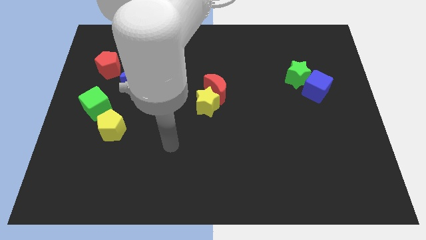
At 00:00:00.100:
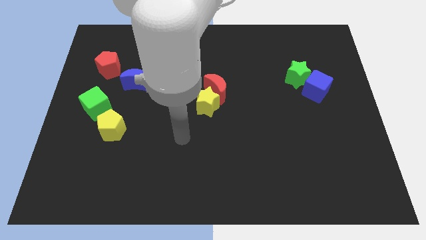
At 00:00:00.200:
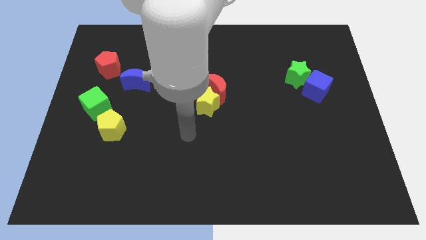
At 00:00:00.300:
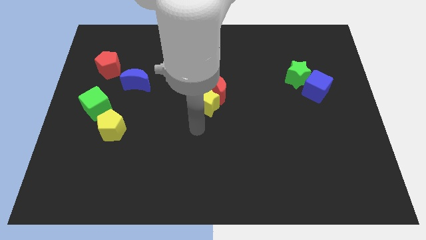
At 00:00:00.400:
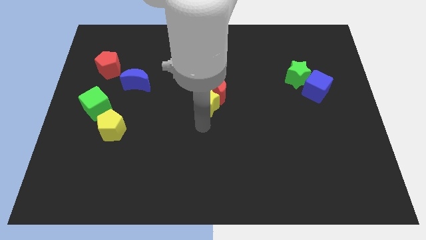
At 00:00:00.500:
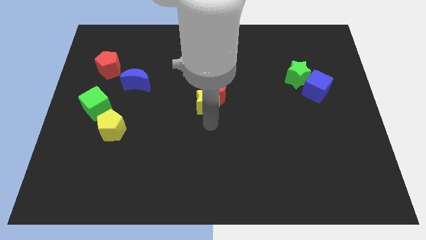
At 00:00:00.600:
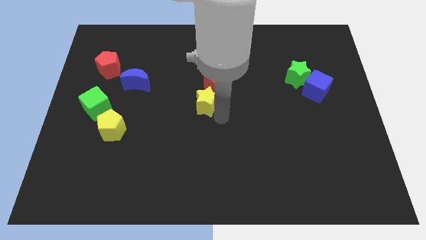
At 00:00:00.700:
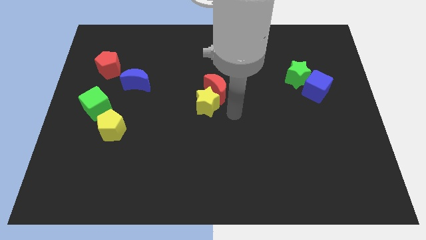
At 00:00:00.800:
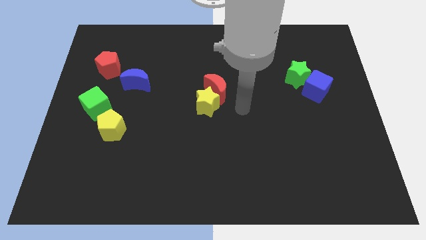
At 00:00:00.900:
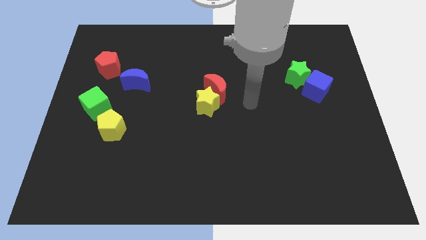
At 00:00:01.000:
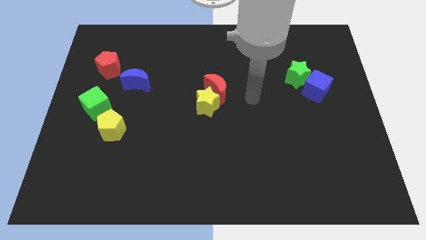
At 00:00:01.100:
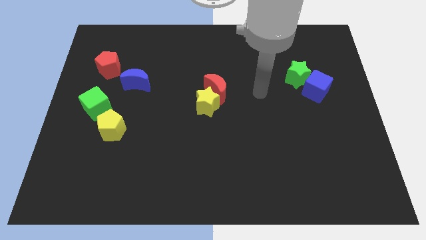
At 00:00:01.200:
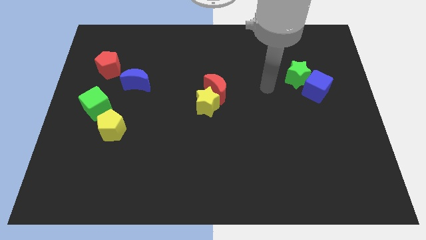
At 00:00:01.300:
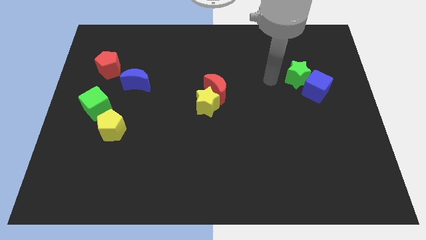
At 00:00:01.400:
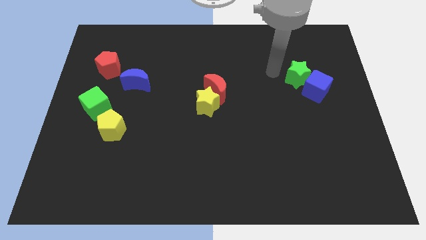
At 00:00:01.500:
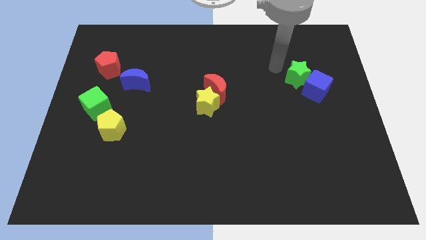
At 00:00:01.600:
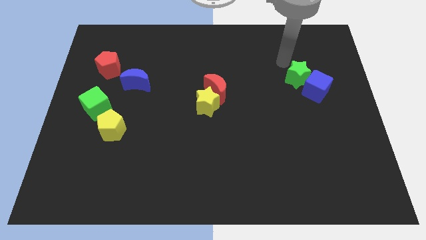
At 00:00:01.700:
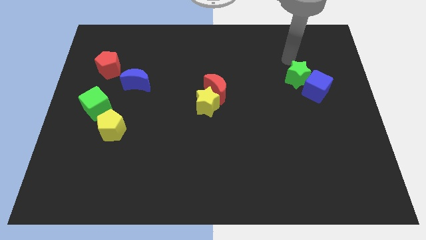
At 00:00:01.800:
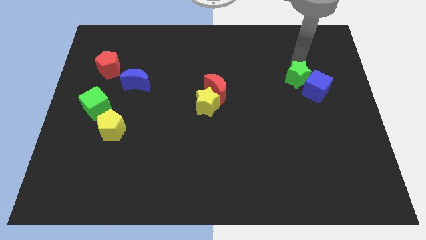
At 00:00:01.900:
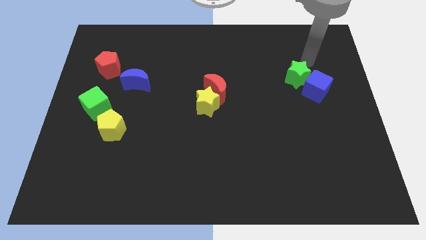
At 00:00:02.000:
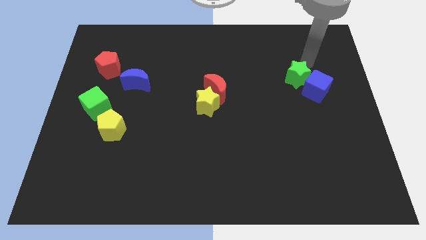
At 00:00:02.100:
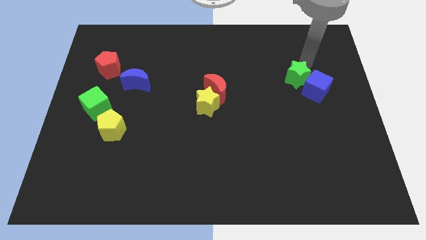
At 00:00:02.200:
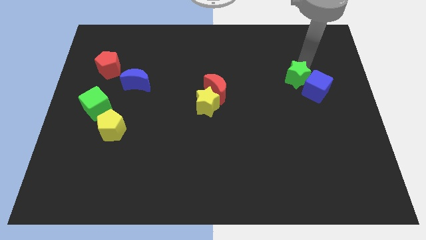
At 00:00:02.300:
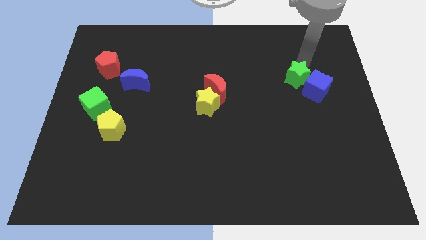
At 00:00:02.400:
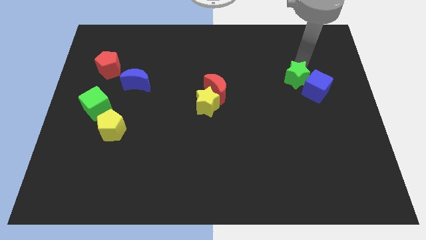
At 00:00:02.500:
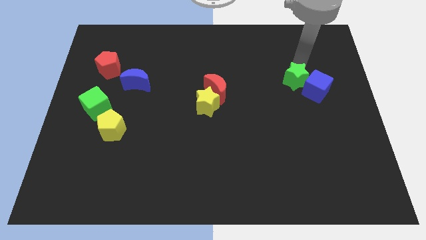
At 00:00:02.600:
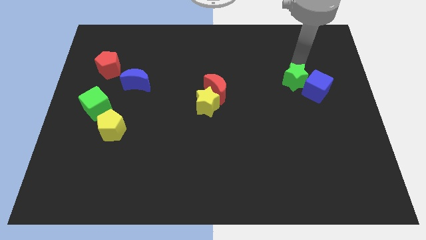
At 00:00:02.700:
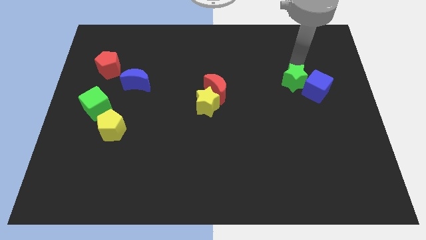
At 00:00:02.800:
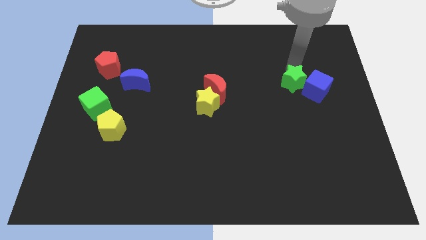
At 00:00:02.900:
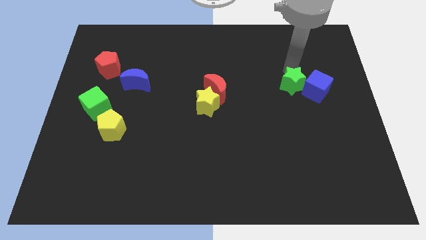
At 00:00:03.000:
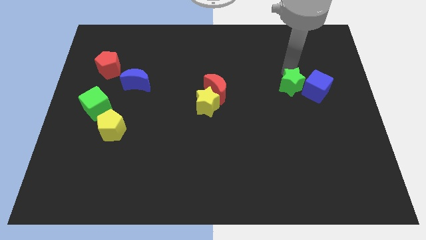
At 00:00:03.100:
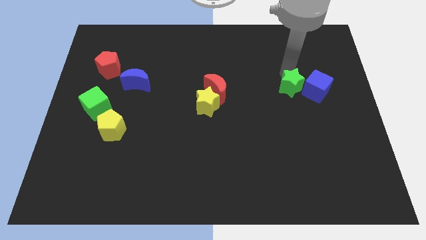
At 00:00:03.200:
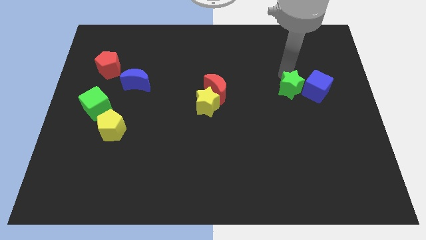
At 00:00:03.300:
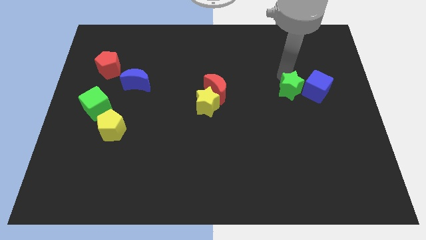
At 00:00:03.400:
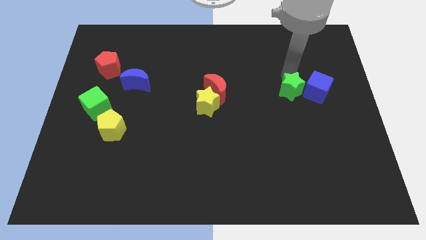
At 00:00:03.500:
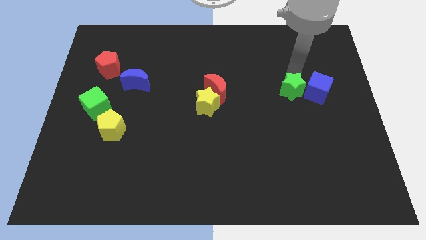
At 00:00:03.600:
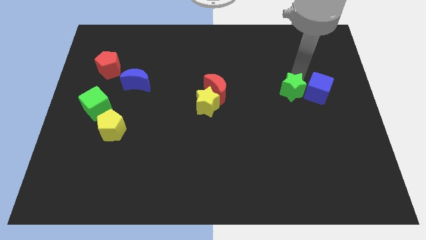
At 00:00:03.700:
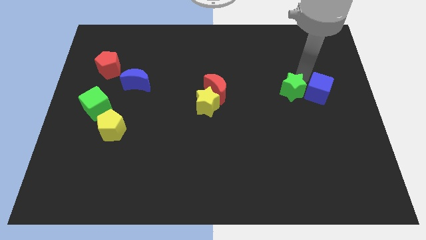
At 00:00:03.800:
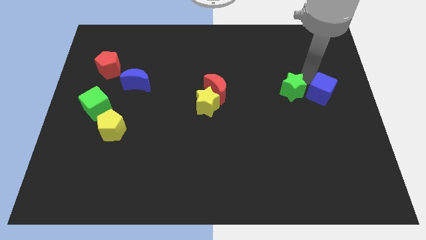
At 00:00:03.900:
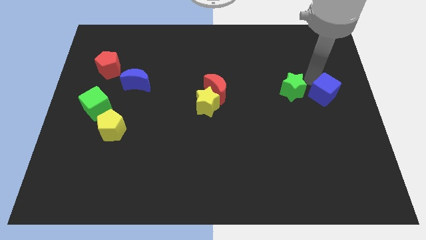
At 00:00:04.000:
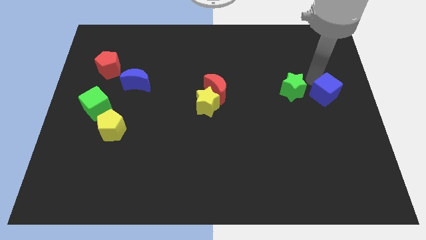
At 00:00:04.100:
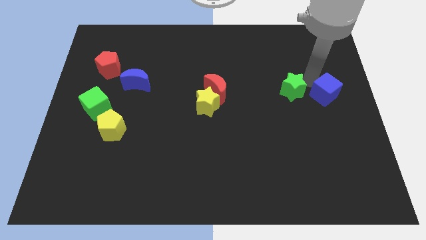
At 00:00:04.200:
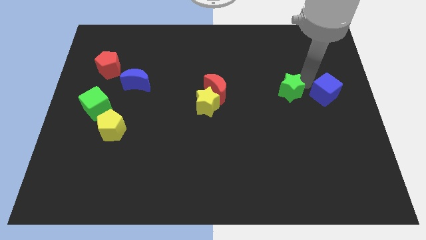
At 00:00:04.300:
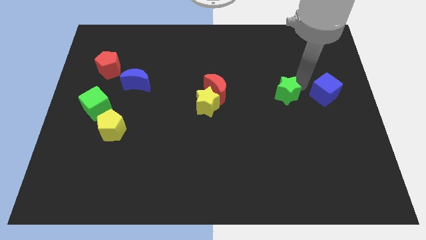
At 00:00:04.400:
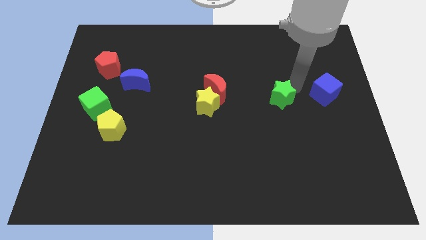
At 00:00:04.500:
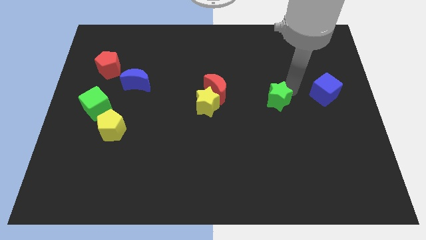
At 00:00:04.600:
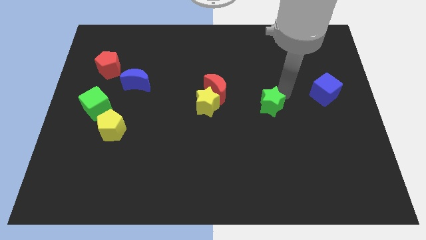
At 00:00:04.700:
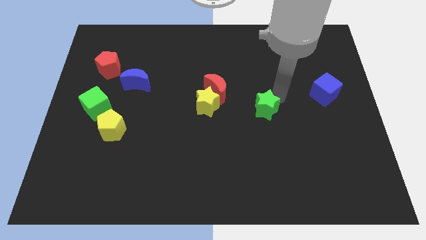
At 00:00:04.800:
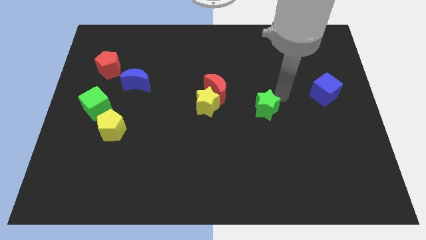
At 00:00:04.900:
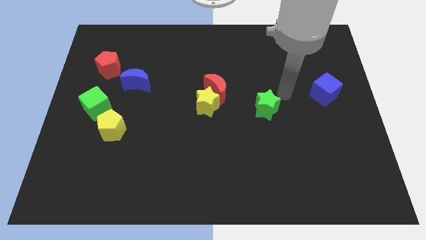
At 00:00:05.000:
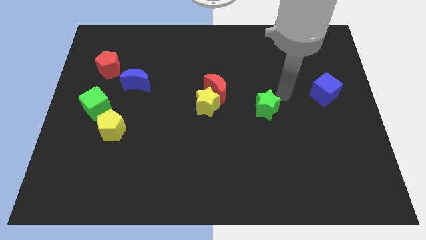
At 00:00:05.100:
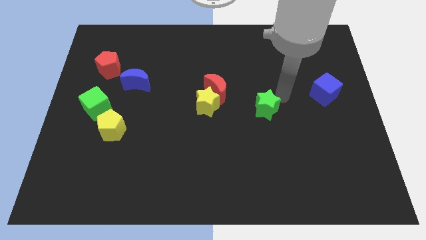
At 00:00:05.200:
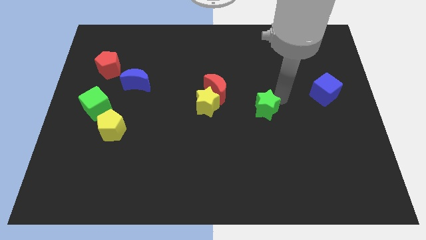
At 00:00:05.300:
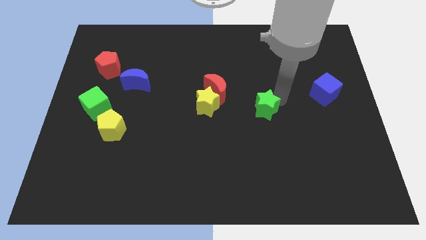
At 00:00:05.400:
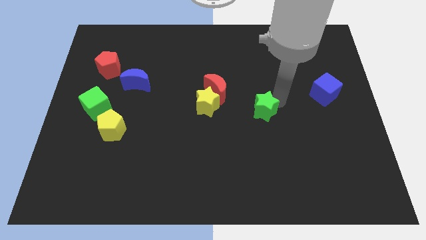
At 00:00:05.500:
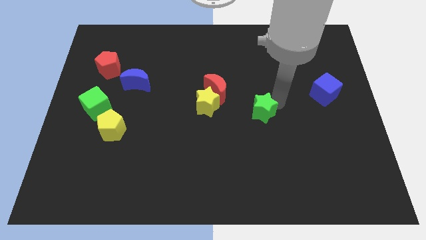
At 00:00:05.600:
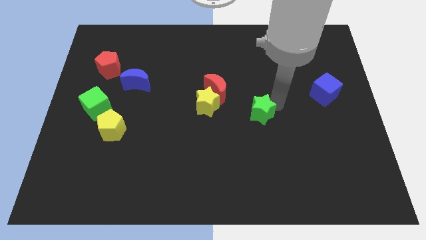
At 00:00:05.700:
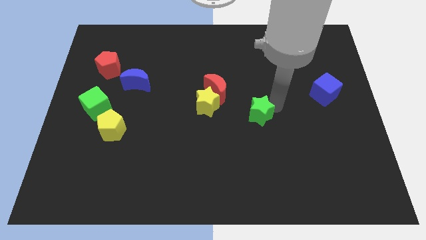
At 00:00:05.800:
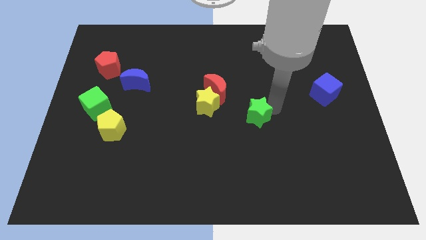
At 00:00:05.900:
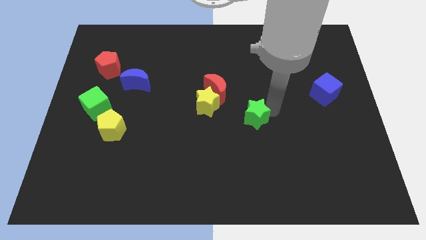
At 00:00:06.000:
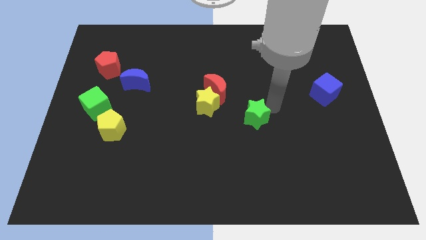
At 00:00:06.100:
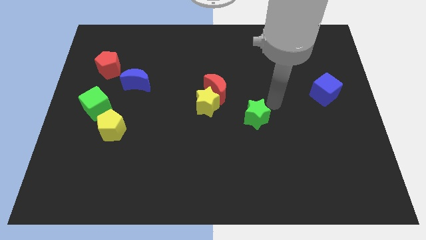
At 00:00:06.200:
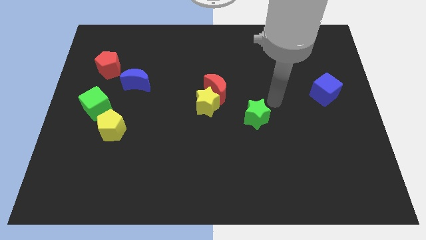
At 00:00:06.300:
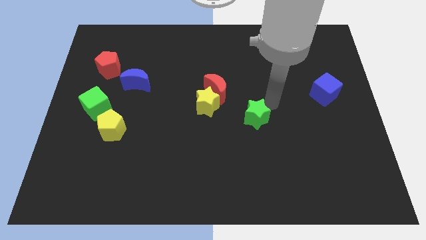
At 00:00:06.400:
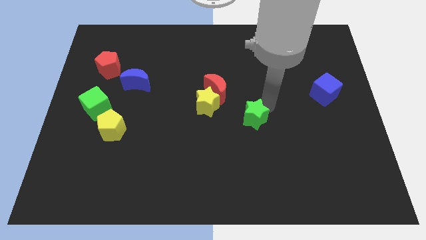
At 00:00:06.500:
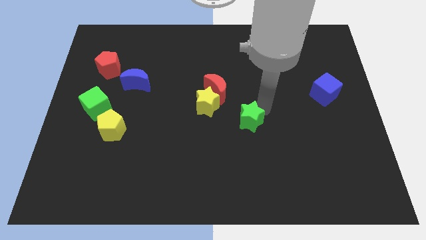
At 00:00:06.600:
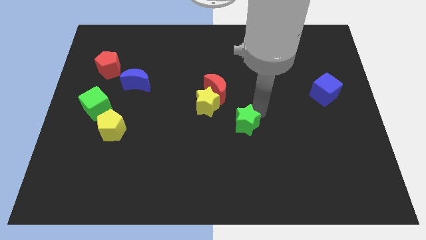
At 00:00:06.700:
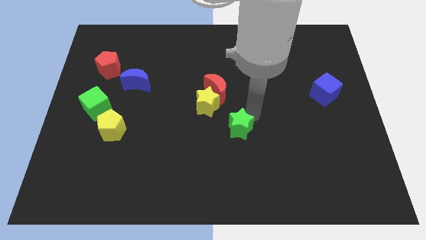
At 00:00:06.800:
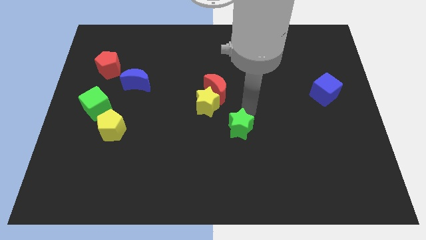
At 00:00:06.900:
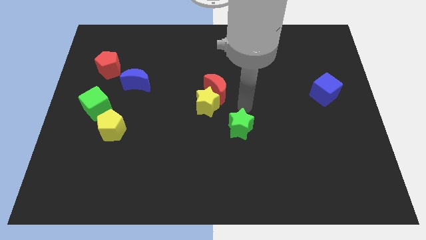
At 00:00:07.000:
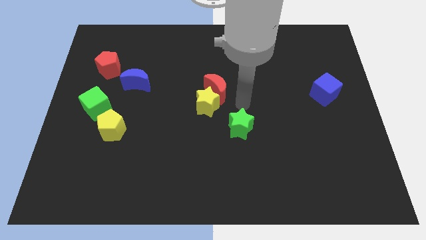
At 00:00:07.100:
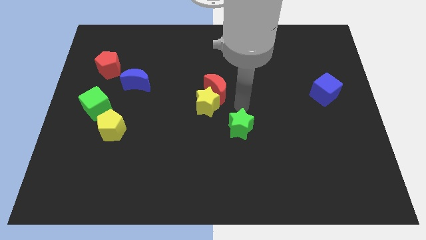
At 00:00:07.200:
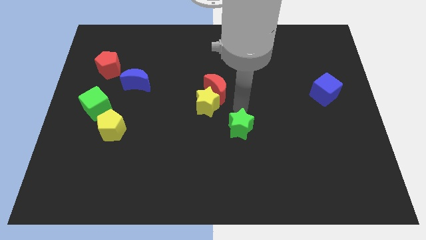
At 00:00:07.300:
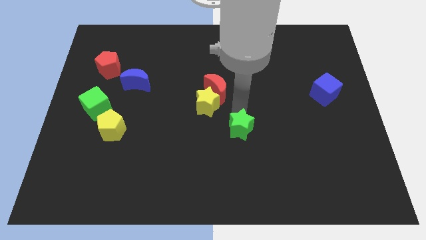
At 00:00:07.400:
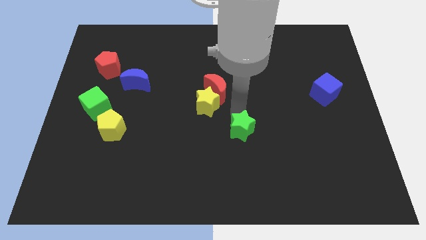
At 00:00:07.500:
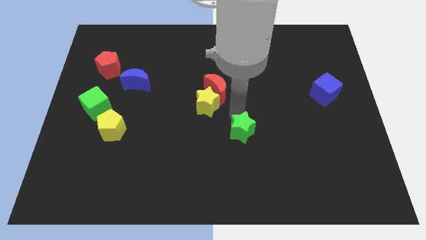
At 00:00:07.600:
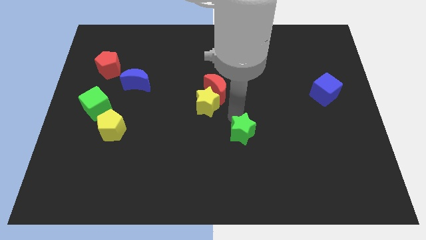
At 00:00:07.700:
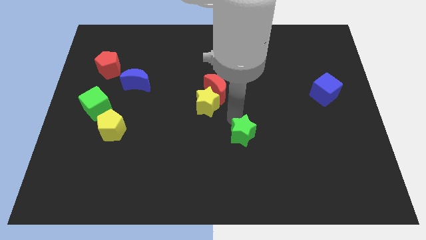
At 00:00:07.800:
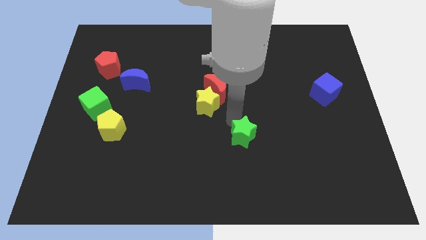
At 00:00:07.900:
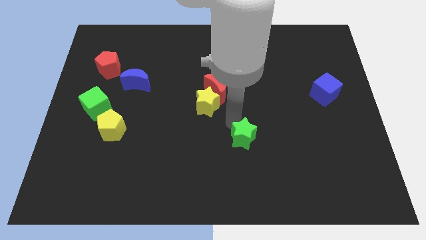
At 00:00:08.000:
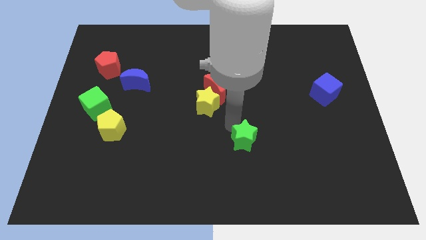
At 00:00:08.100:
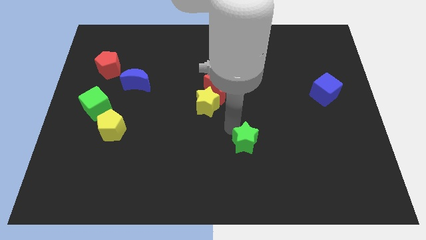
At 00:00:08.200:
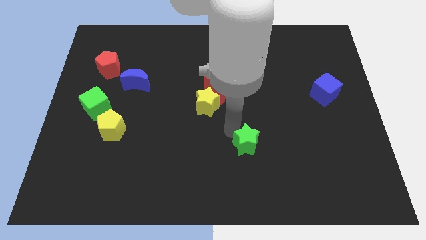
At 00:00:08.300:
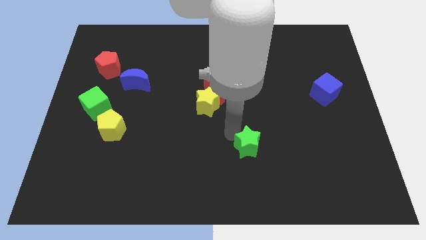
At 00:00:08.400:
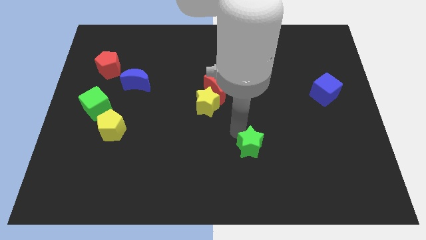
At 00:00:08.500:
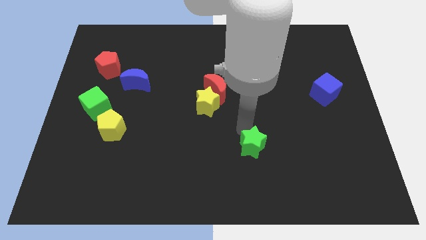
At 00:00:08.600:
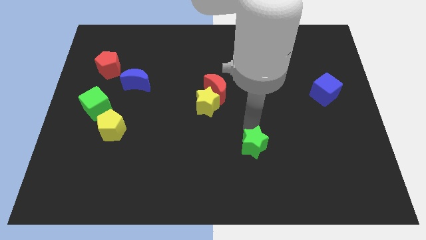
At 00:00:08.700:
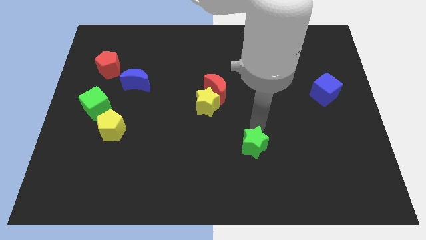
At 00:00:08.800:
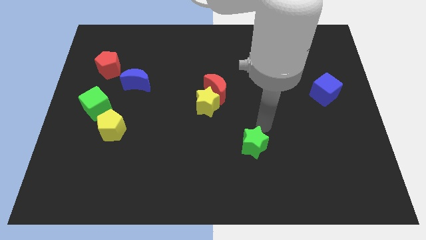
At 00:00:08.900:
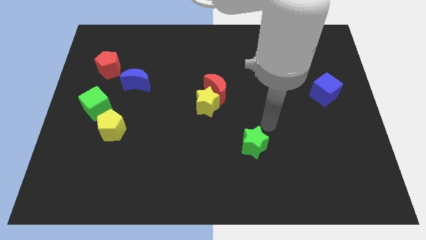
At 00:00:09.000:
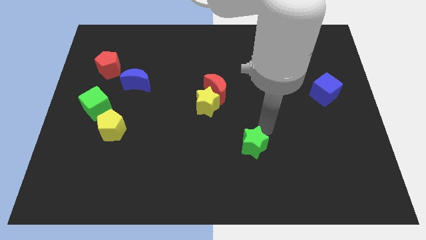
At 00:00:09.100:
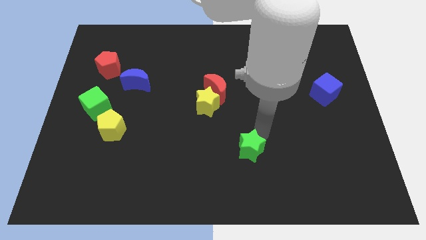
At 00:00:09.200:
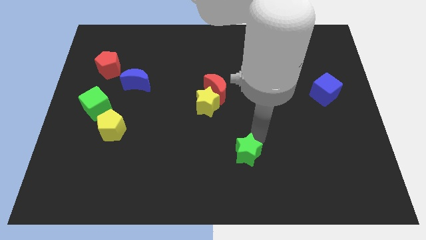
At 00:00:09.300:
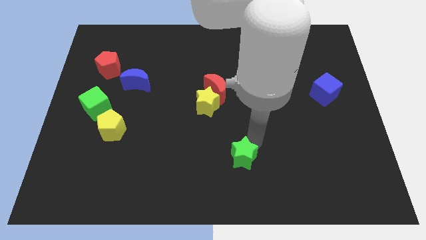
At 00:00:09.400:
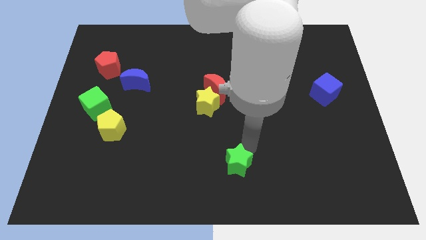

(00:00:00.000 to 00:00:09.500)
move the green star to the bottom side
